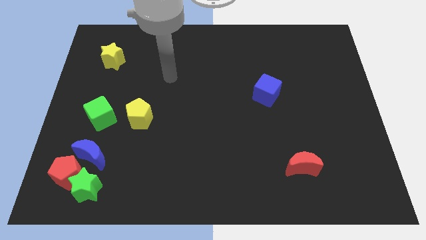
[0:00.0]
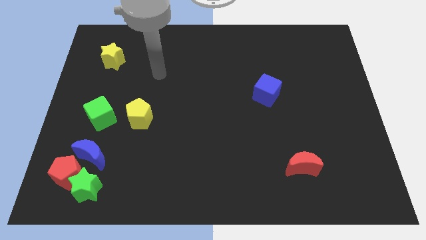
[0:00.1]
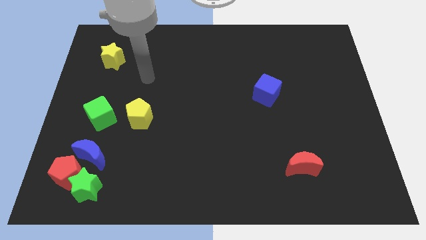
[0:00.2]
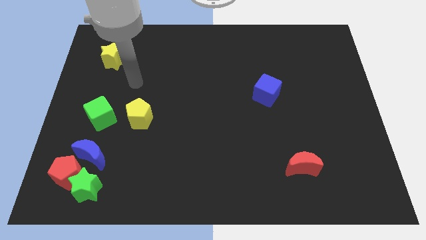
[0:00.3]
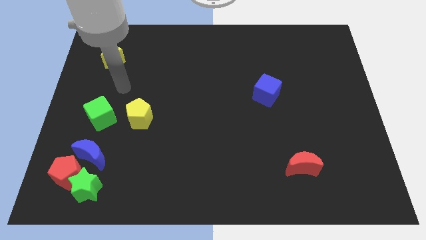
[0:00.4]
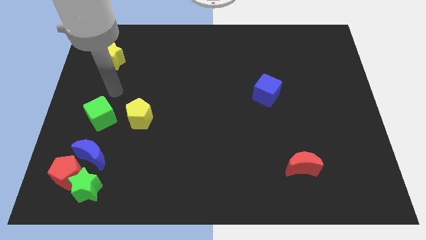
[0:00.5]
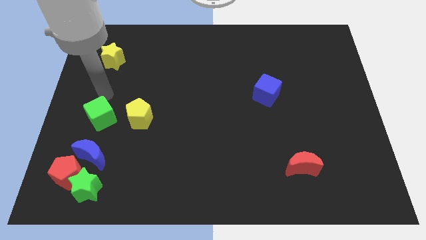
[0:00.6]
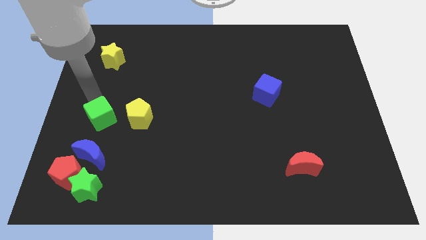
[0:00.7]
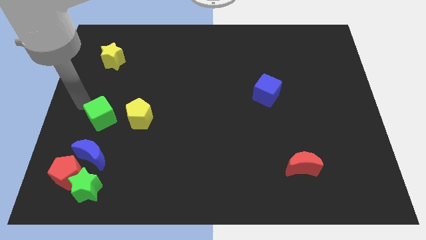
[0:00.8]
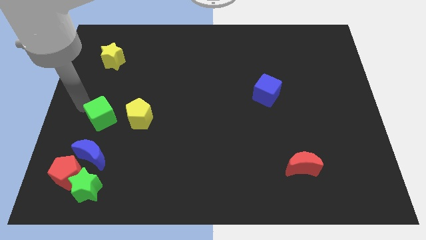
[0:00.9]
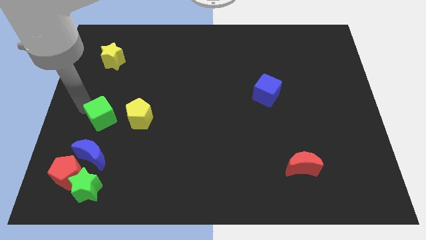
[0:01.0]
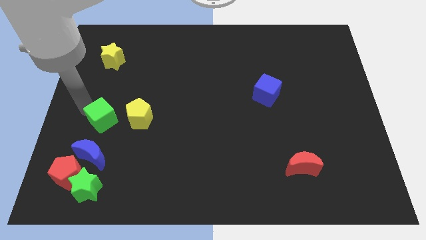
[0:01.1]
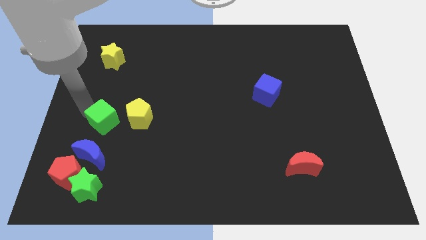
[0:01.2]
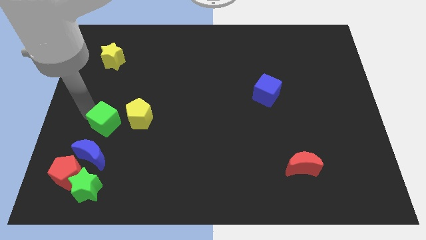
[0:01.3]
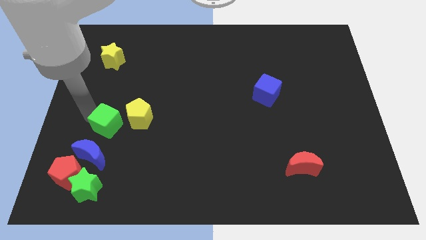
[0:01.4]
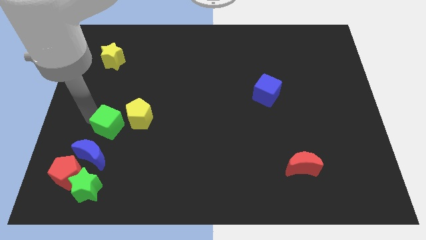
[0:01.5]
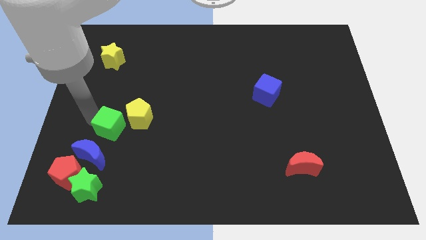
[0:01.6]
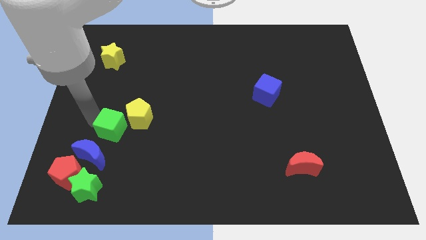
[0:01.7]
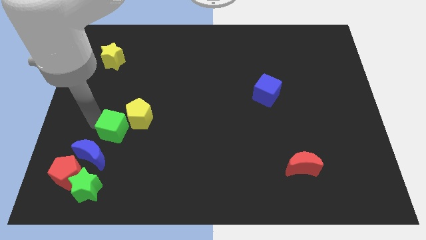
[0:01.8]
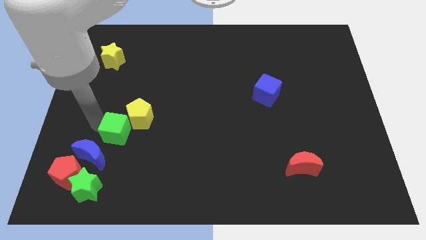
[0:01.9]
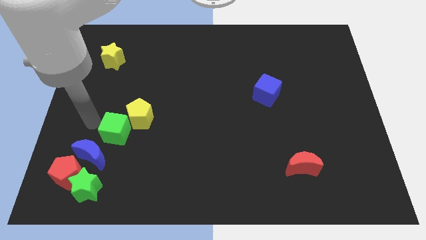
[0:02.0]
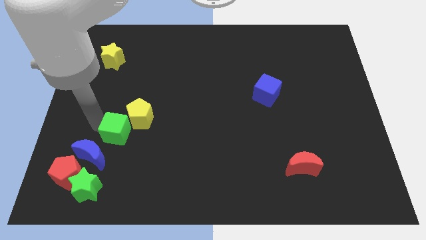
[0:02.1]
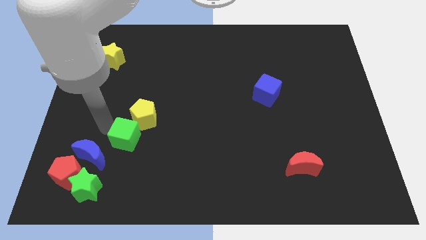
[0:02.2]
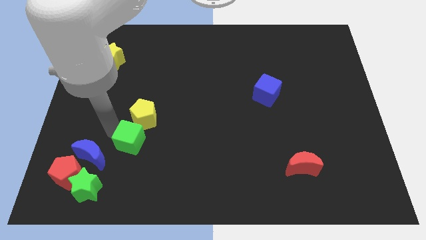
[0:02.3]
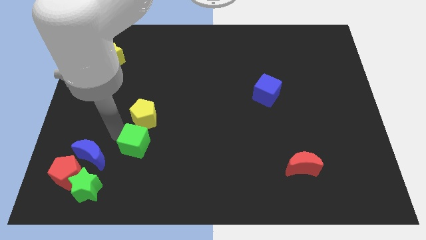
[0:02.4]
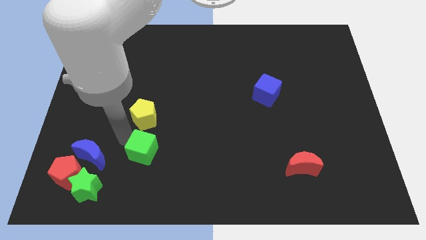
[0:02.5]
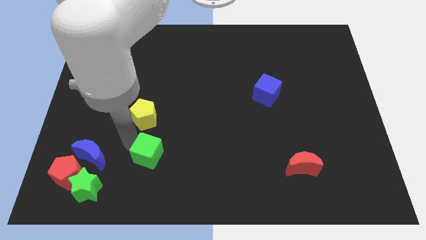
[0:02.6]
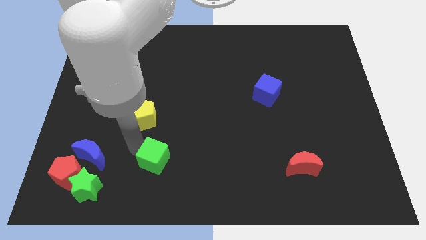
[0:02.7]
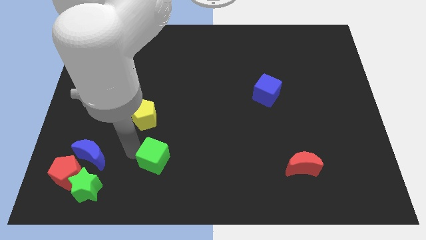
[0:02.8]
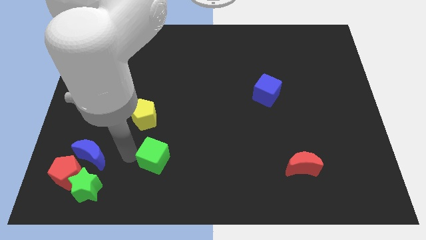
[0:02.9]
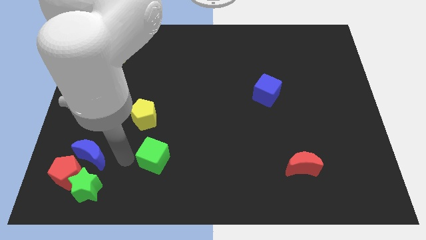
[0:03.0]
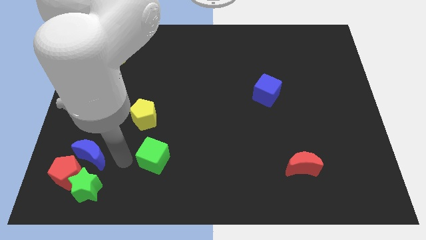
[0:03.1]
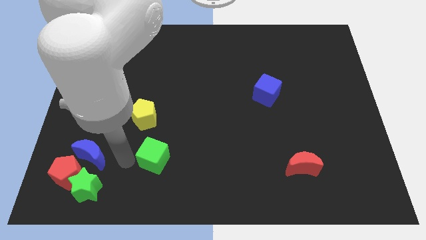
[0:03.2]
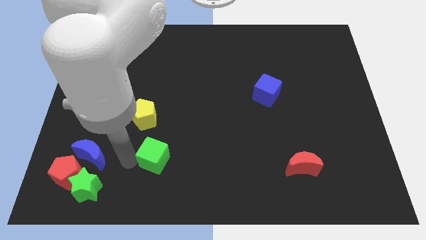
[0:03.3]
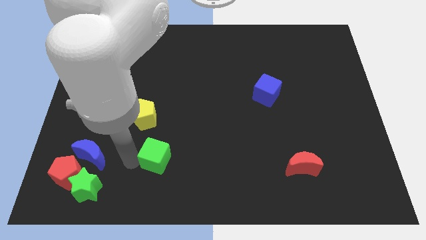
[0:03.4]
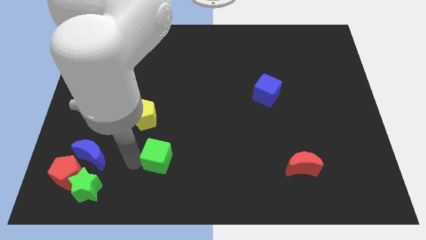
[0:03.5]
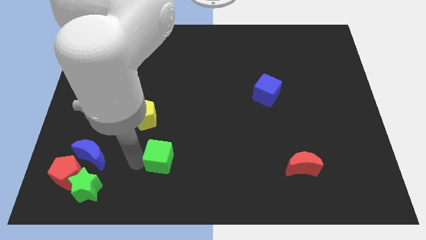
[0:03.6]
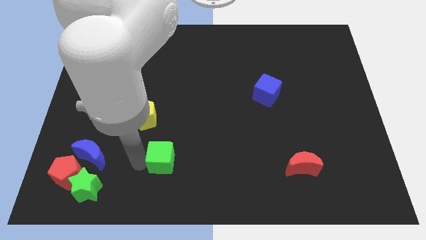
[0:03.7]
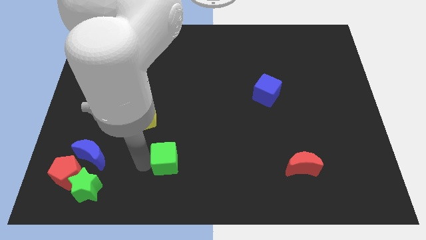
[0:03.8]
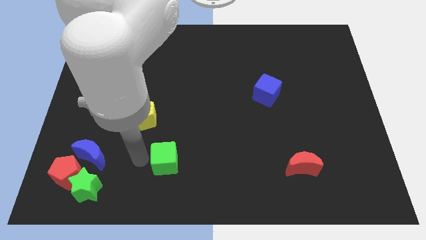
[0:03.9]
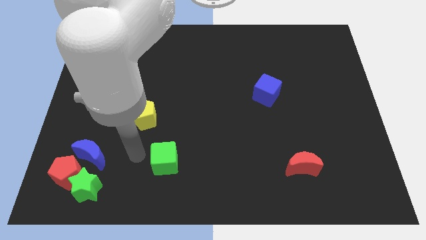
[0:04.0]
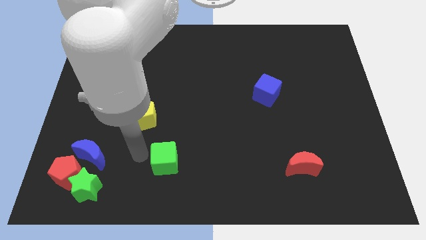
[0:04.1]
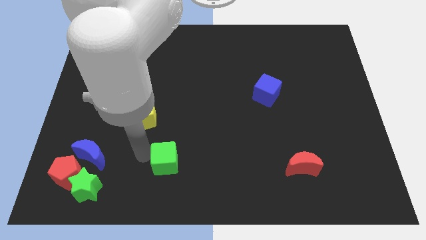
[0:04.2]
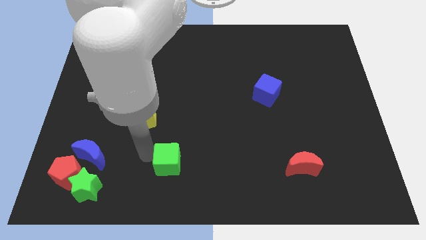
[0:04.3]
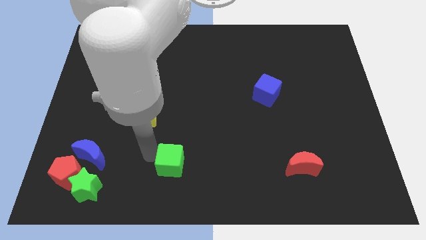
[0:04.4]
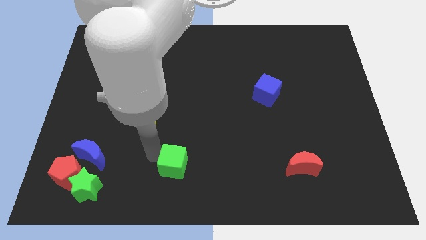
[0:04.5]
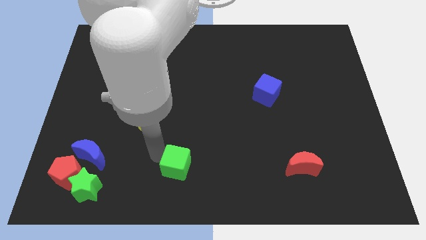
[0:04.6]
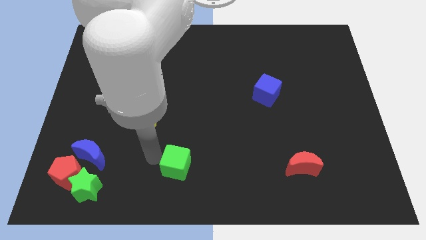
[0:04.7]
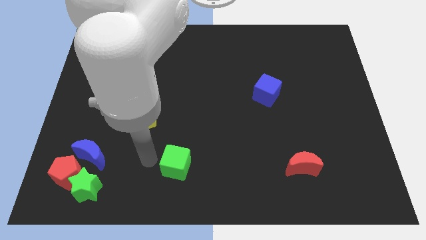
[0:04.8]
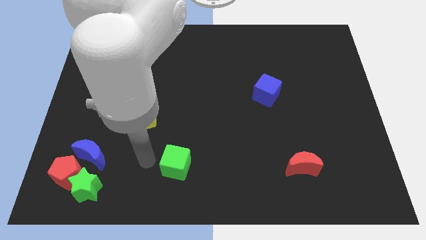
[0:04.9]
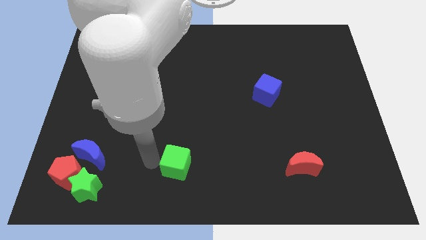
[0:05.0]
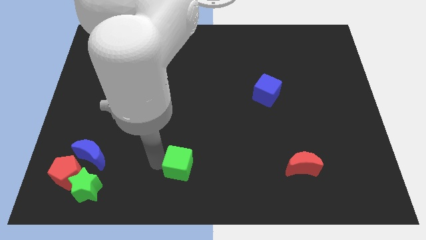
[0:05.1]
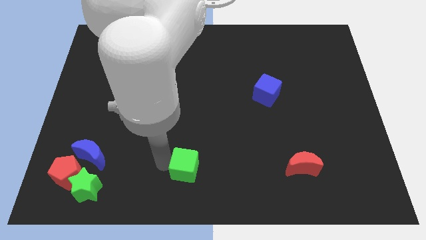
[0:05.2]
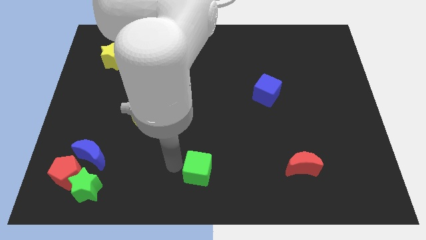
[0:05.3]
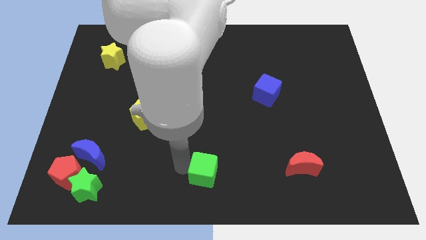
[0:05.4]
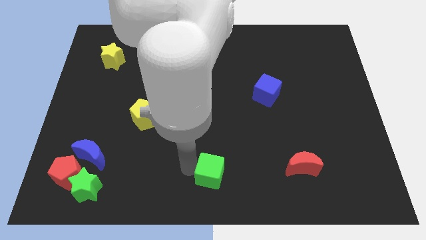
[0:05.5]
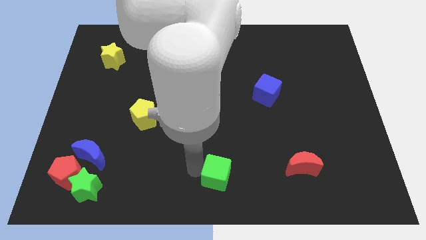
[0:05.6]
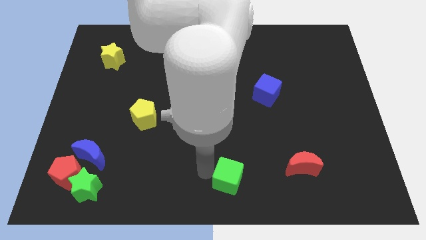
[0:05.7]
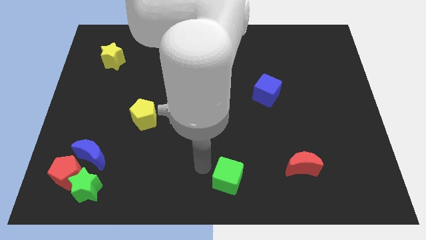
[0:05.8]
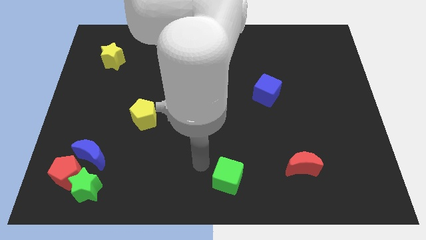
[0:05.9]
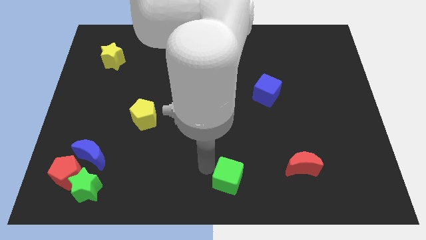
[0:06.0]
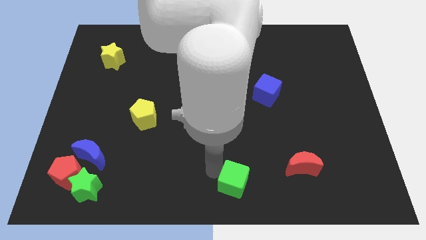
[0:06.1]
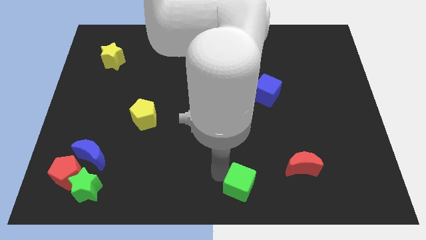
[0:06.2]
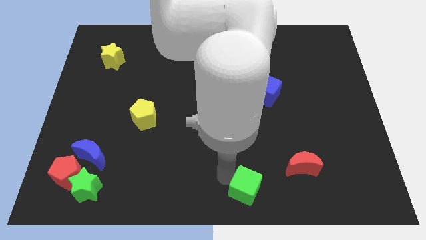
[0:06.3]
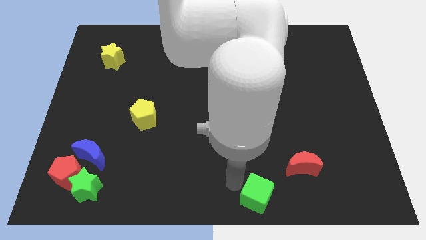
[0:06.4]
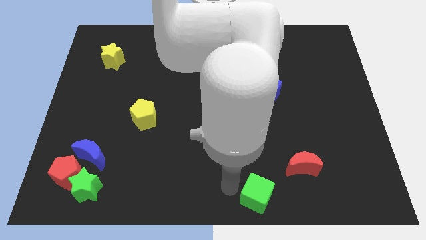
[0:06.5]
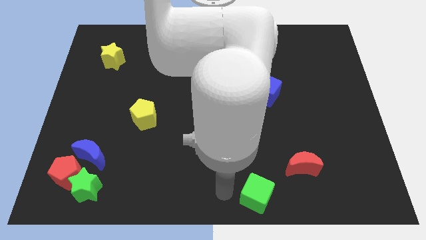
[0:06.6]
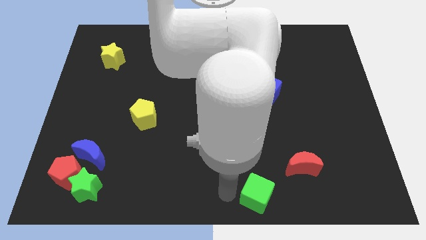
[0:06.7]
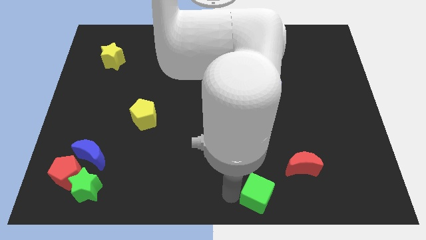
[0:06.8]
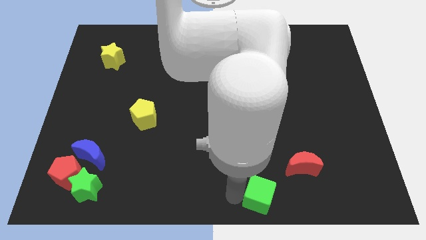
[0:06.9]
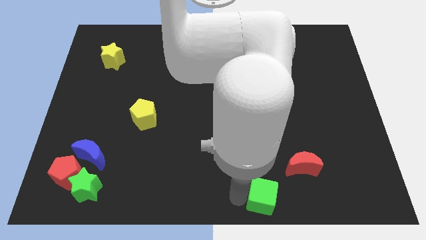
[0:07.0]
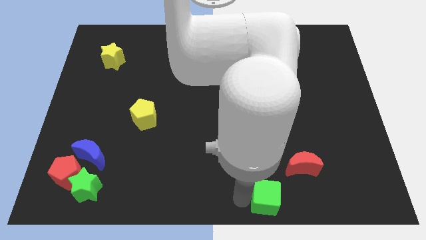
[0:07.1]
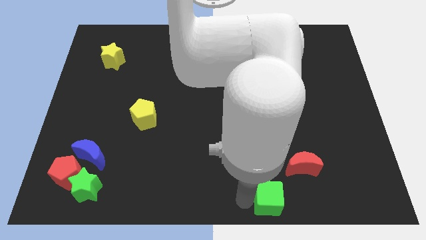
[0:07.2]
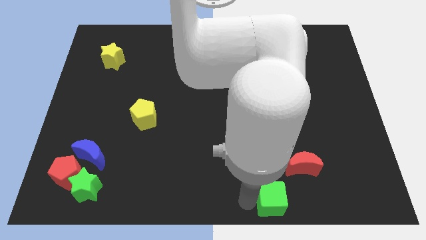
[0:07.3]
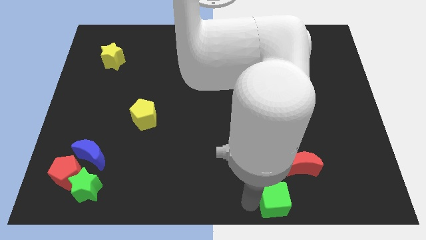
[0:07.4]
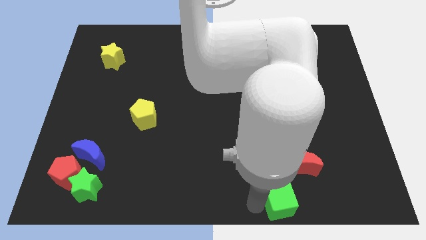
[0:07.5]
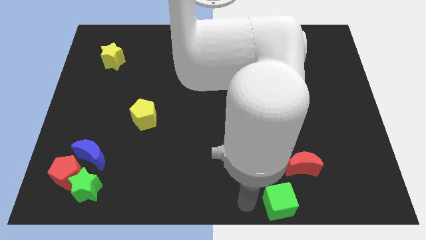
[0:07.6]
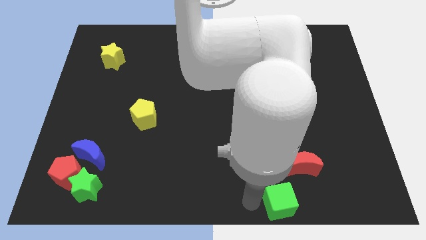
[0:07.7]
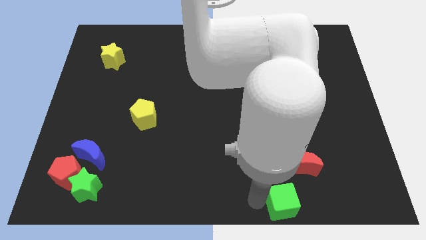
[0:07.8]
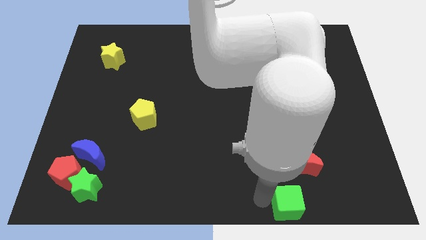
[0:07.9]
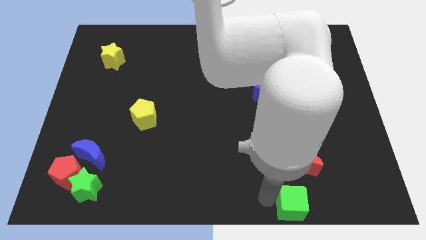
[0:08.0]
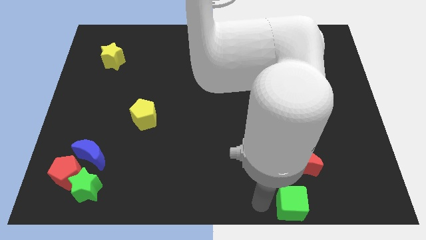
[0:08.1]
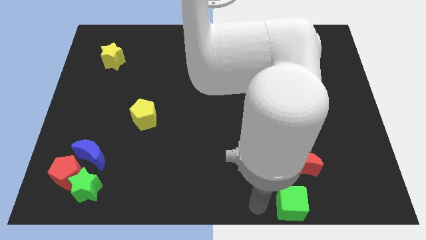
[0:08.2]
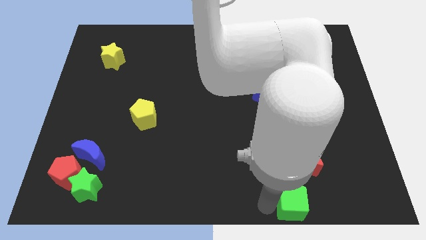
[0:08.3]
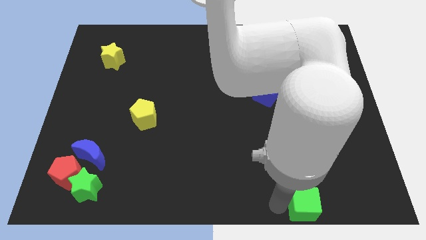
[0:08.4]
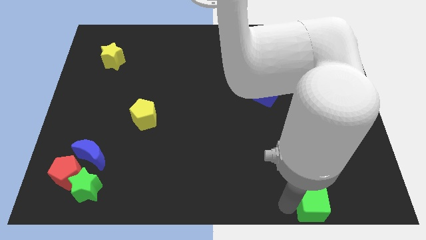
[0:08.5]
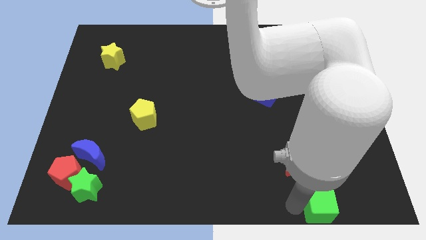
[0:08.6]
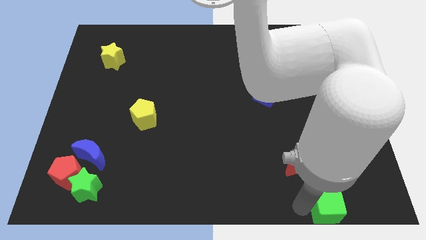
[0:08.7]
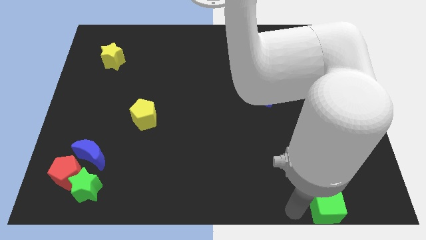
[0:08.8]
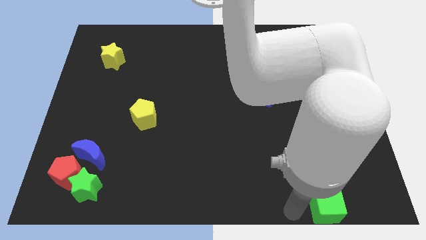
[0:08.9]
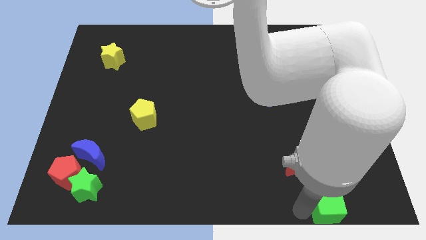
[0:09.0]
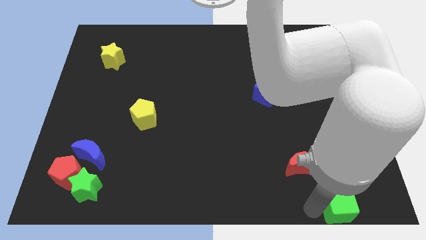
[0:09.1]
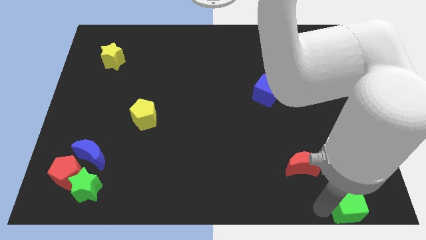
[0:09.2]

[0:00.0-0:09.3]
push the green cube to the lower right corner
